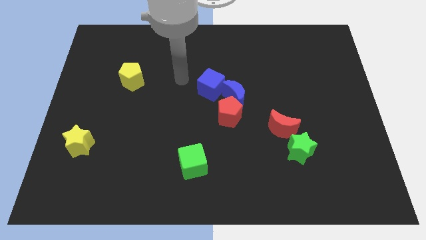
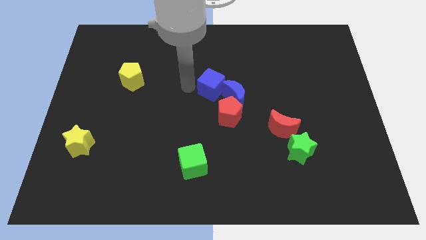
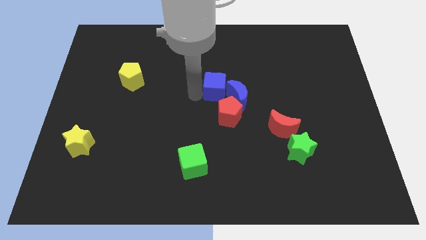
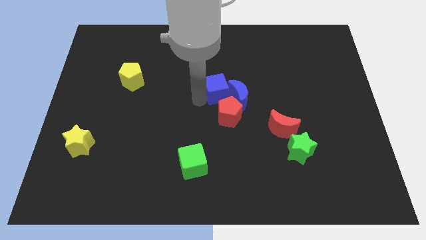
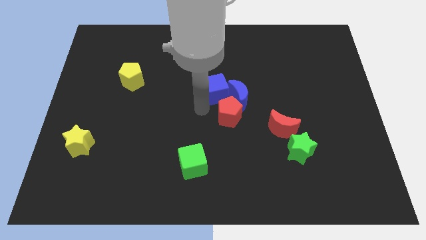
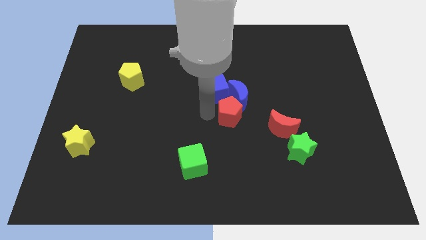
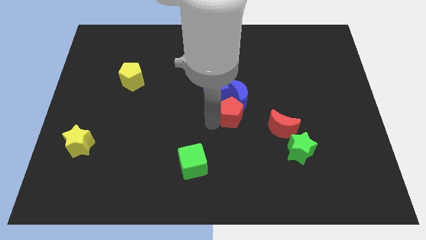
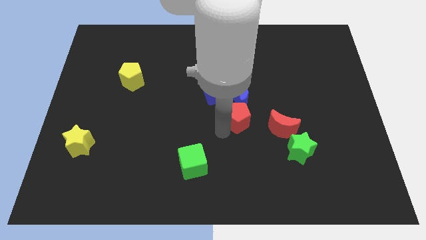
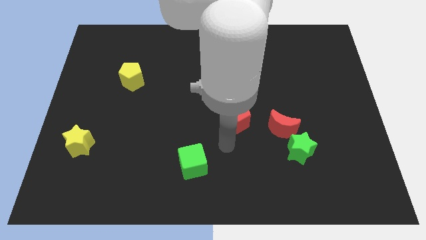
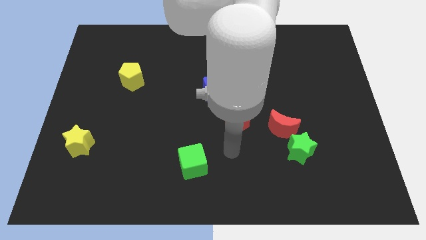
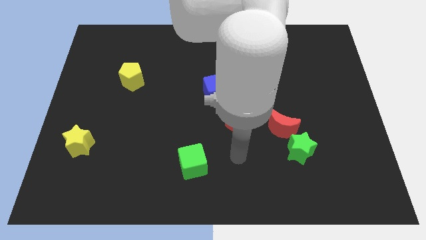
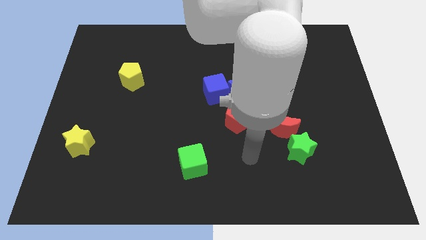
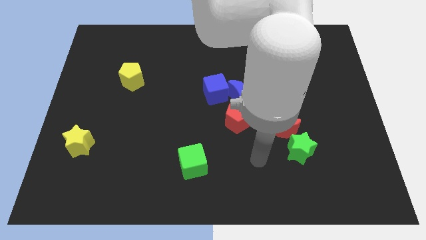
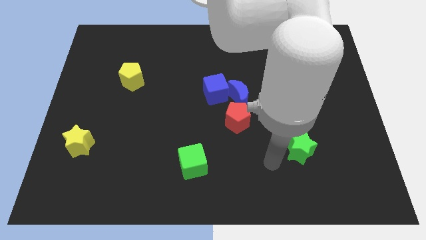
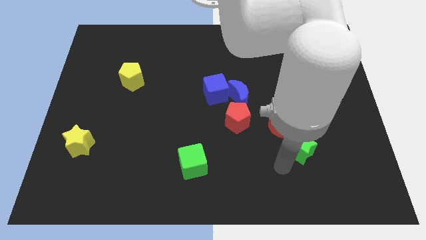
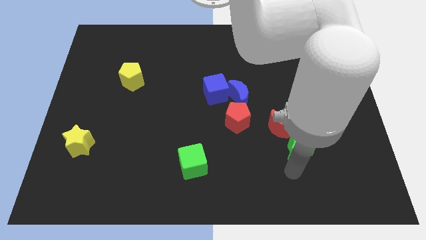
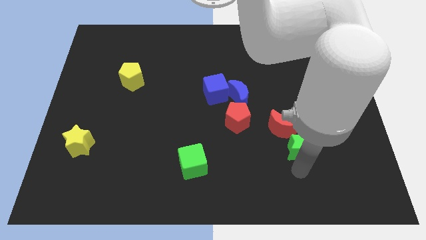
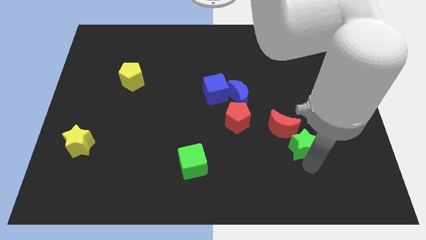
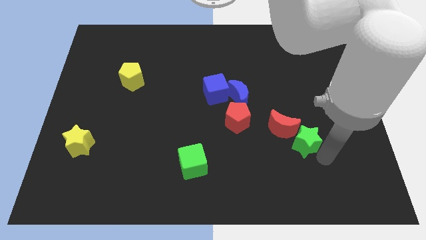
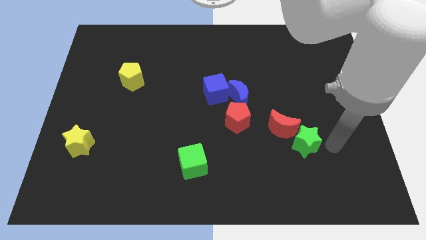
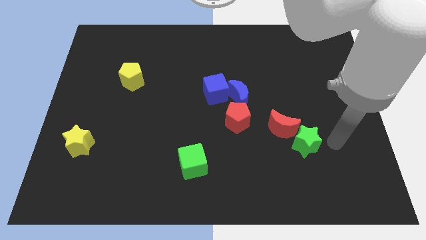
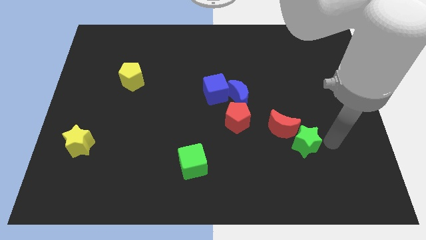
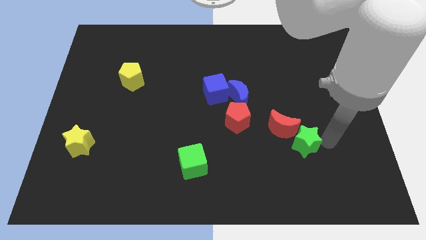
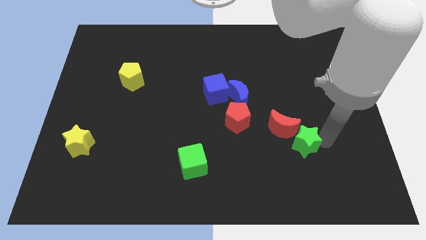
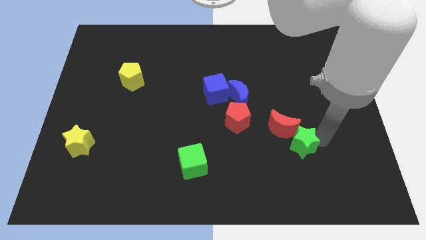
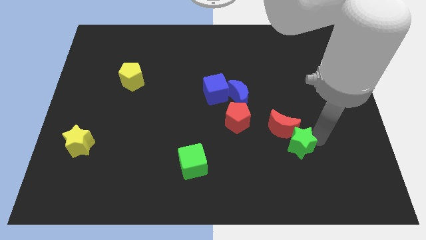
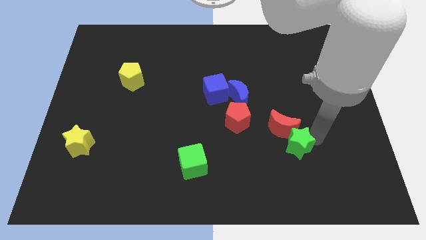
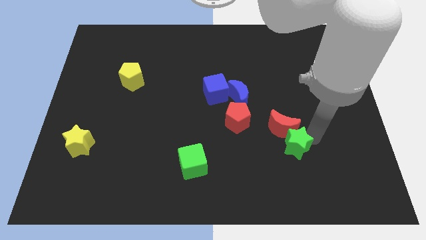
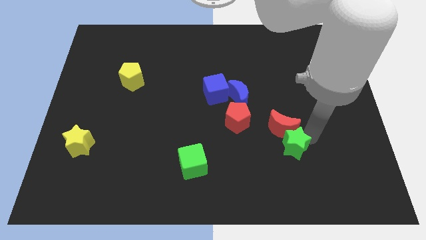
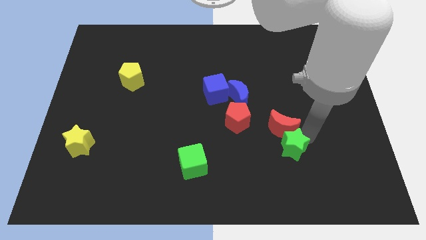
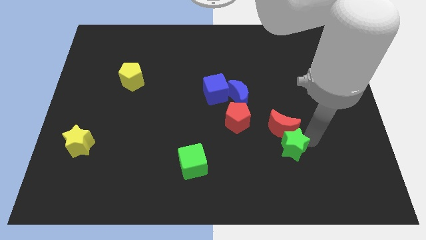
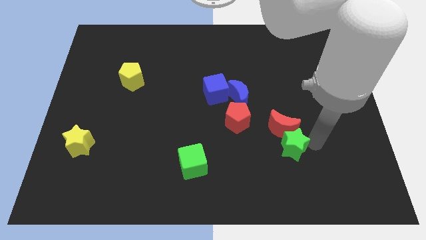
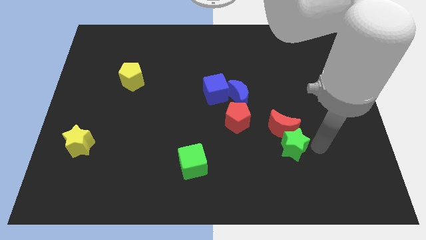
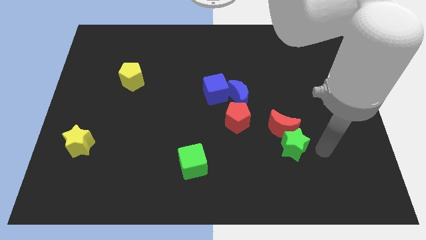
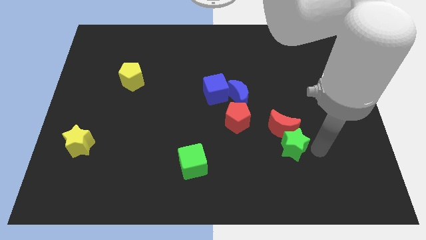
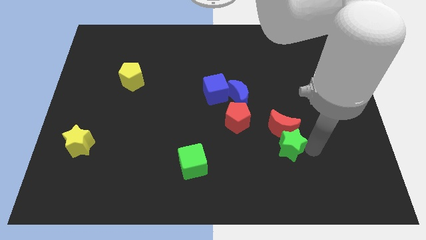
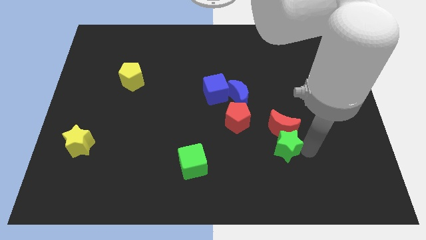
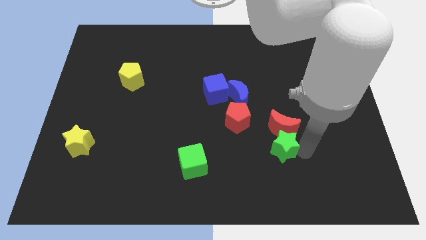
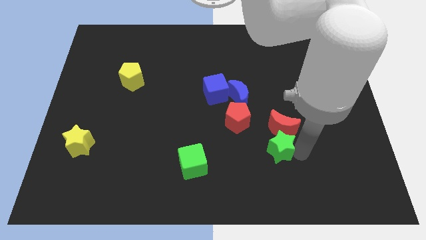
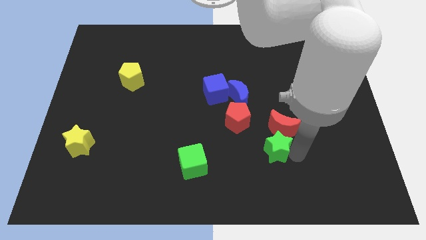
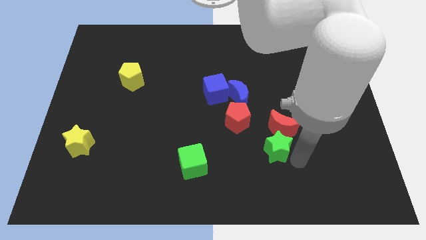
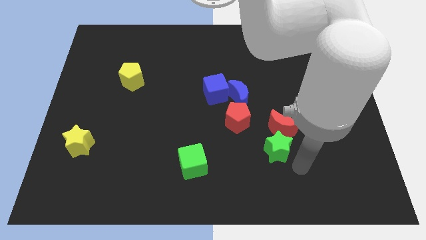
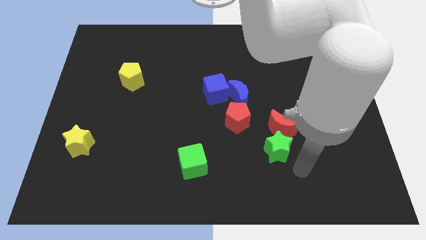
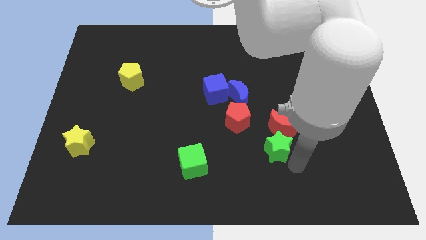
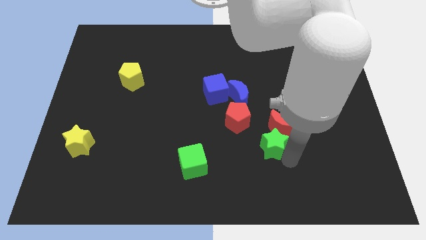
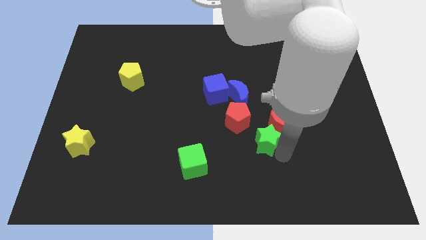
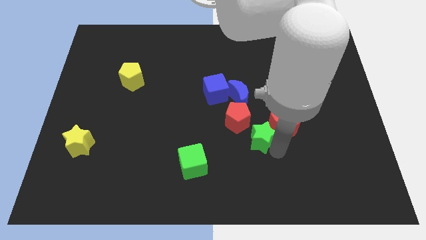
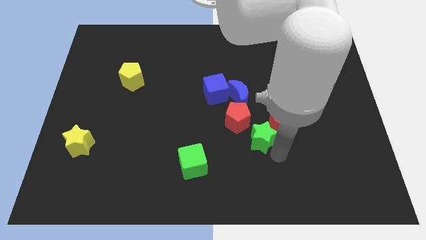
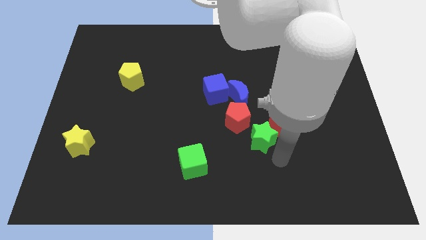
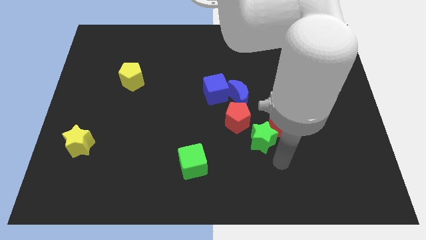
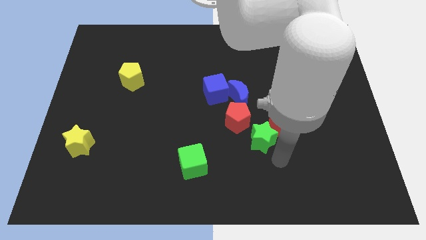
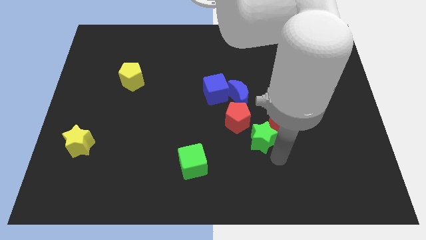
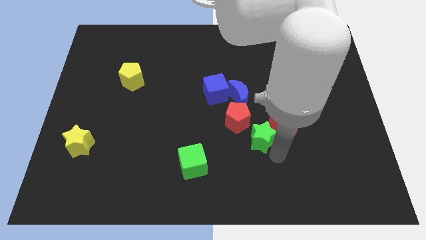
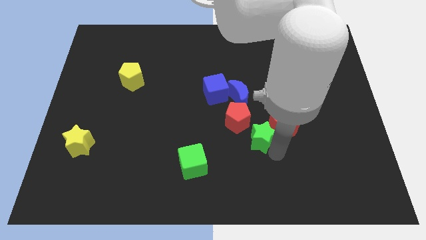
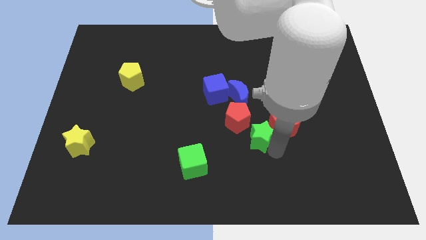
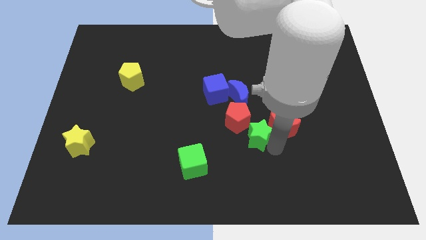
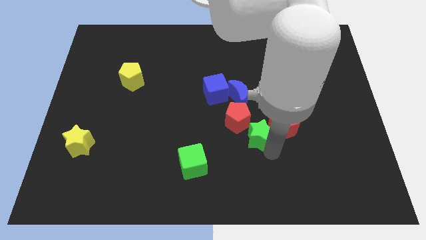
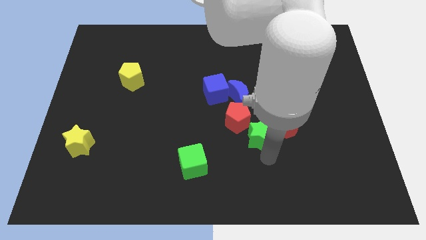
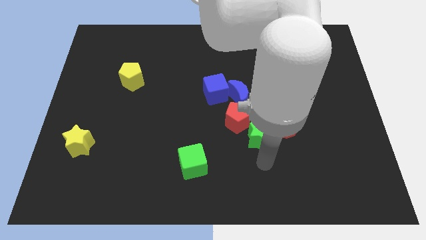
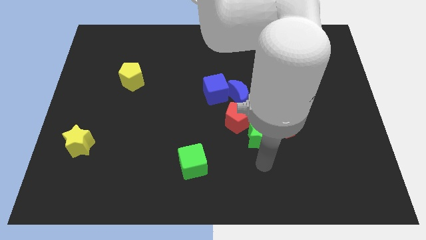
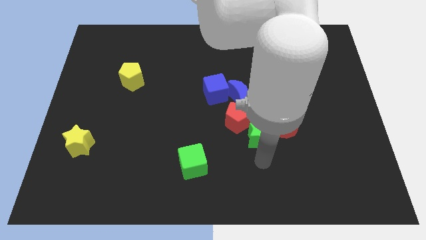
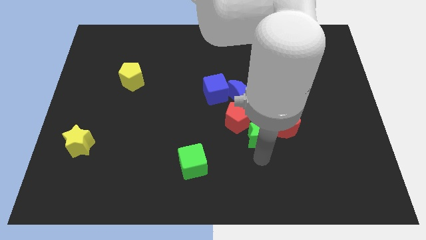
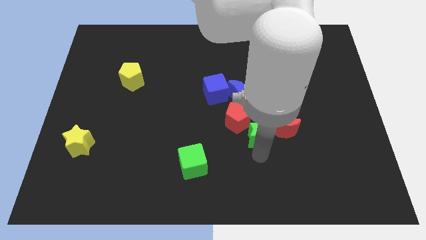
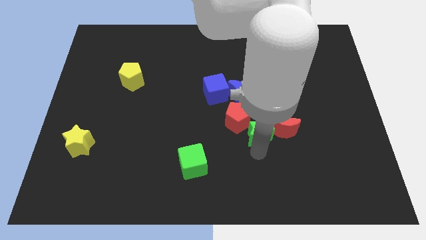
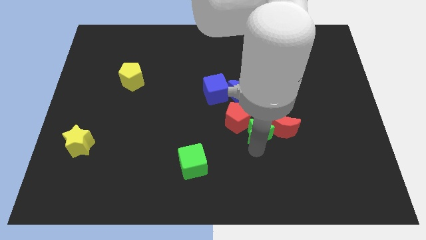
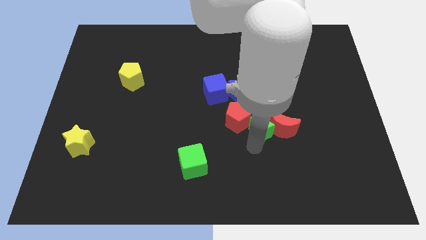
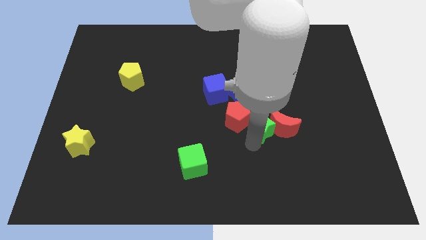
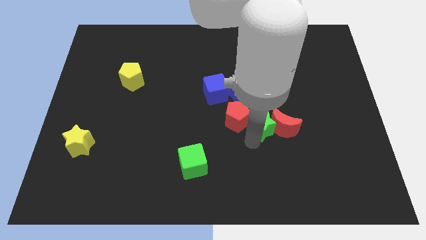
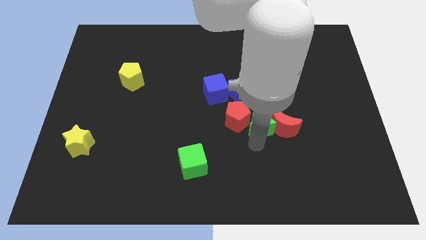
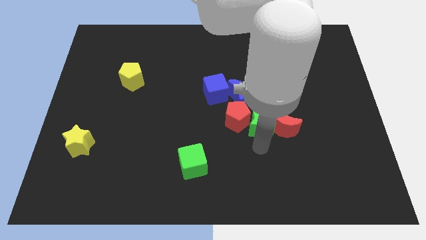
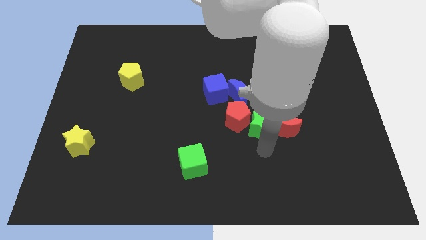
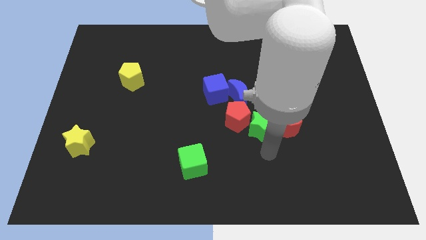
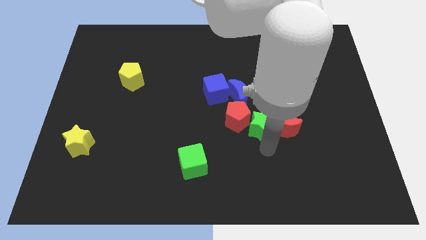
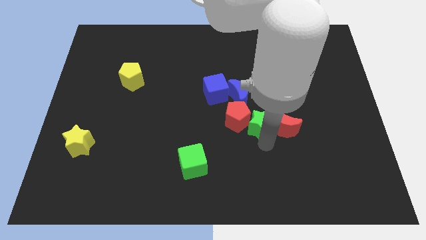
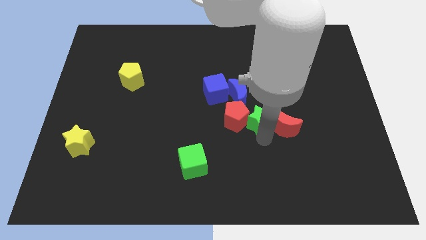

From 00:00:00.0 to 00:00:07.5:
move the green star diagonally up and to the right of the red pentagon

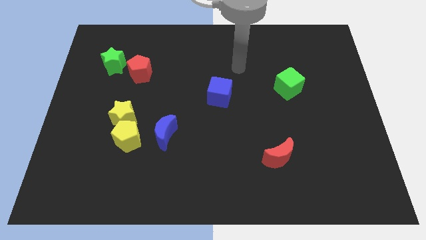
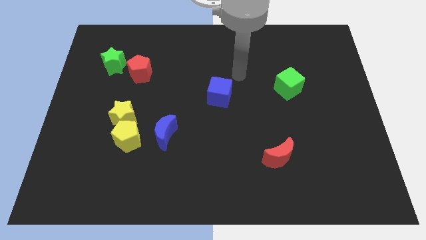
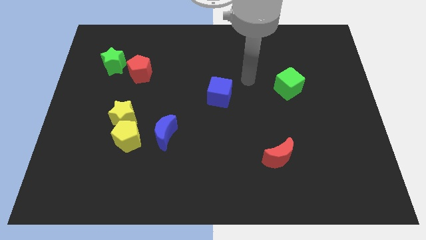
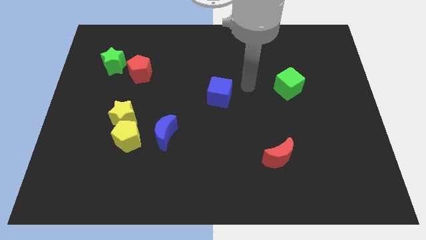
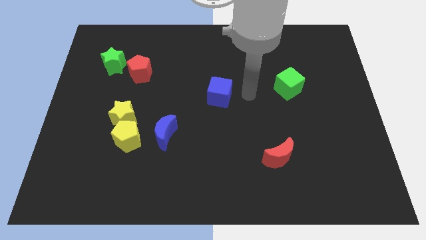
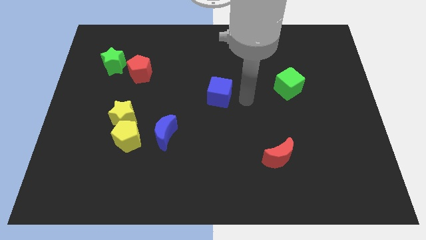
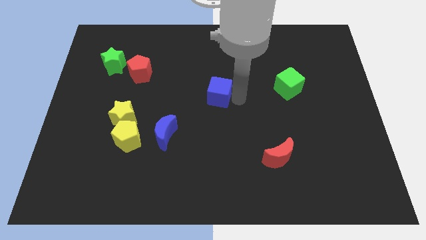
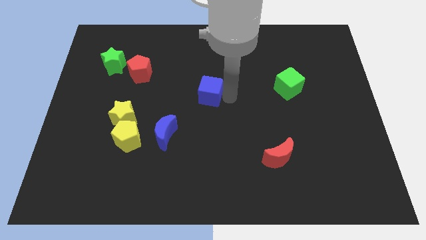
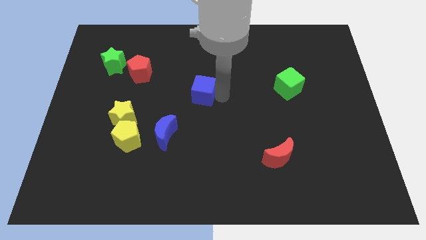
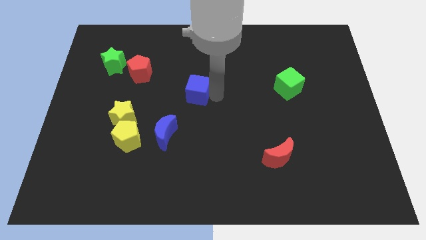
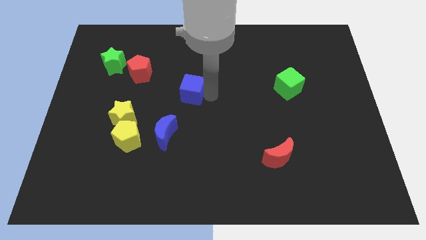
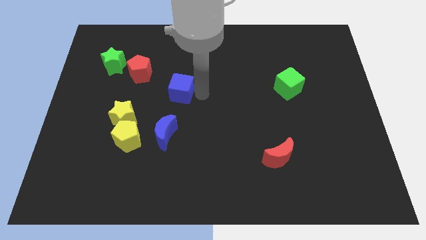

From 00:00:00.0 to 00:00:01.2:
push the blue cube to the bottom right of the red pentagon
